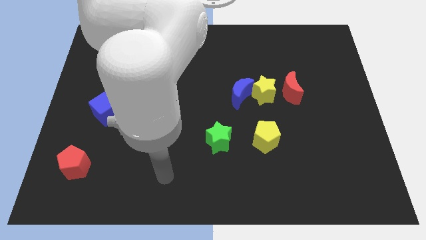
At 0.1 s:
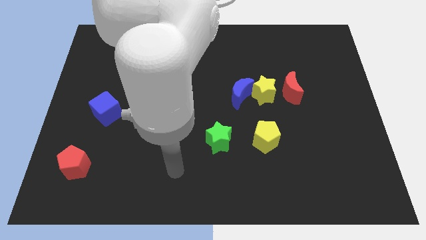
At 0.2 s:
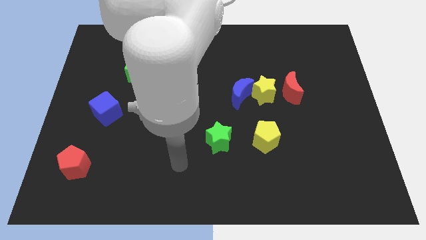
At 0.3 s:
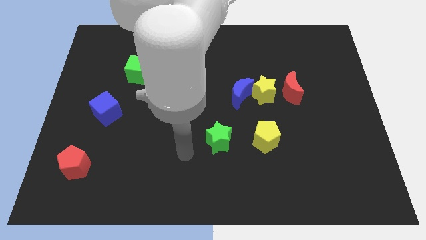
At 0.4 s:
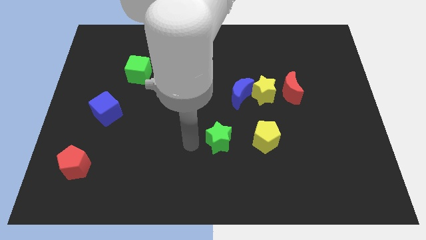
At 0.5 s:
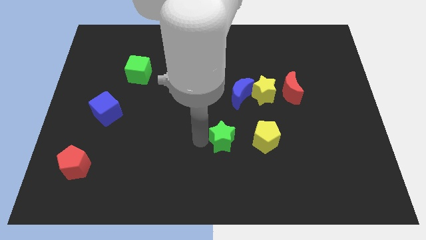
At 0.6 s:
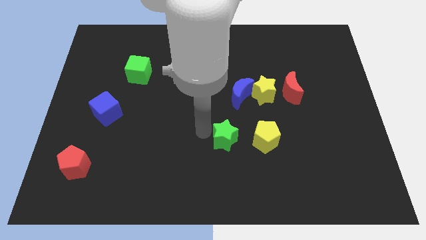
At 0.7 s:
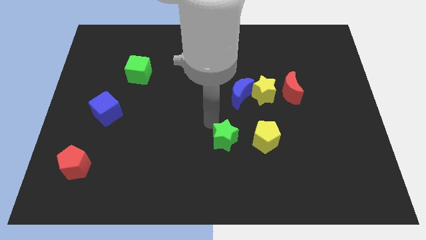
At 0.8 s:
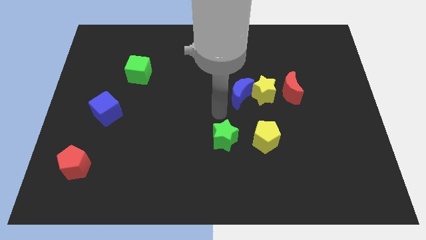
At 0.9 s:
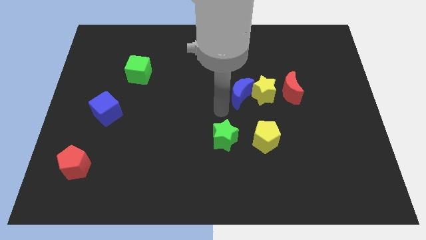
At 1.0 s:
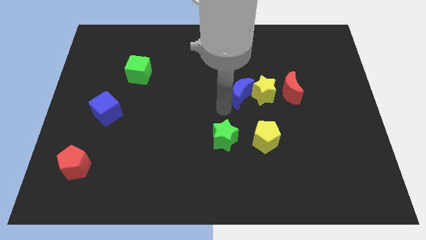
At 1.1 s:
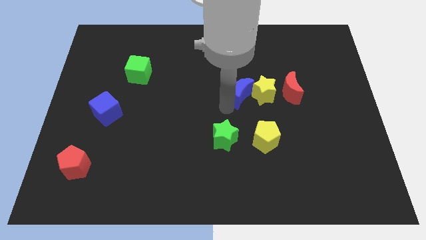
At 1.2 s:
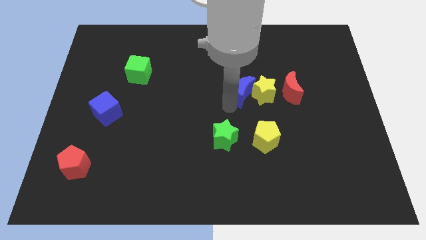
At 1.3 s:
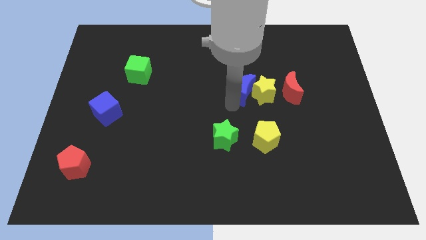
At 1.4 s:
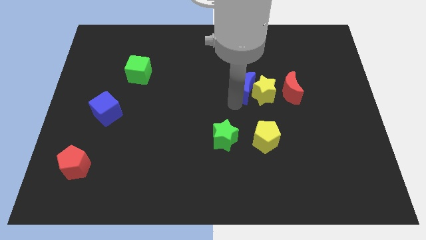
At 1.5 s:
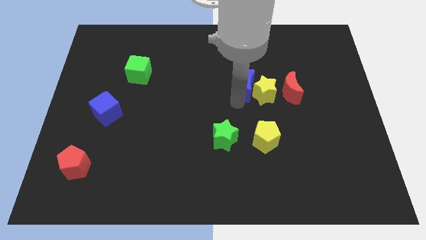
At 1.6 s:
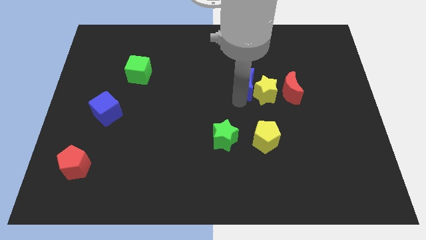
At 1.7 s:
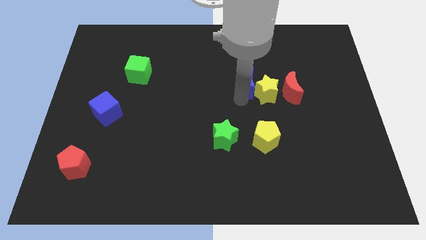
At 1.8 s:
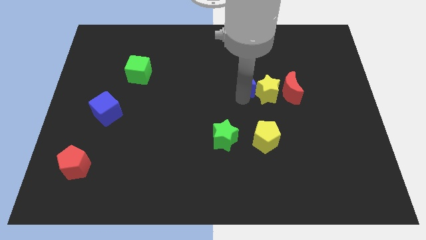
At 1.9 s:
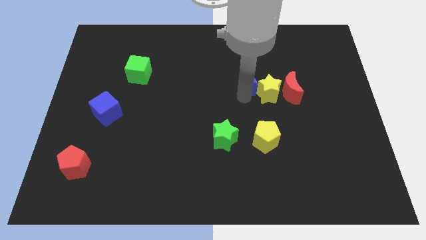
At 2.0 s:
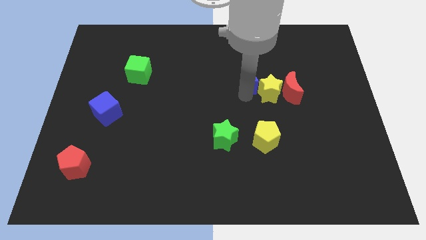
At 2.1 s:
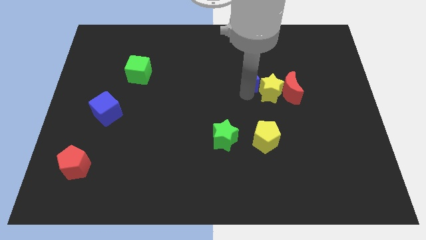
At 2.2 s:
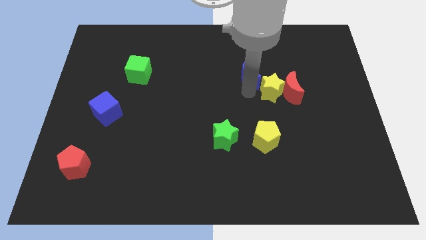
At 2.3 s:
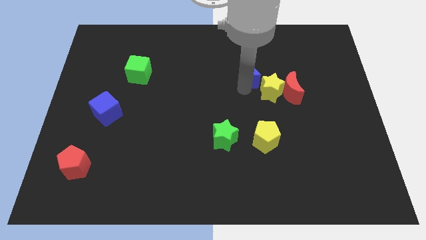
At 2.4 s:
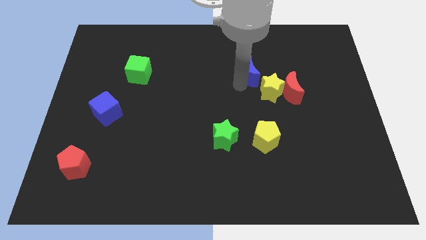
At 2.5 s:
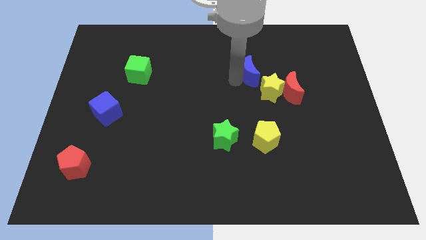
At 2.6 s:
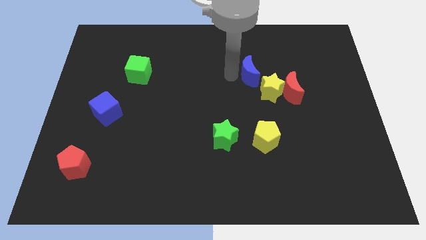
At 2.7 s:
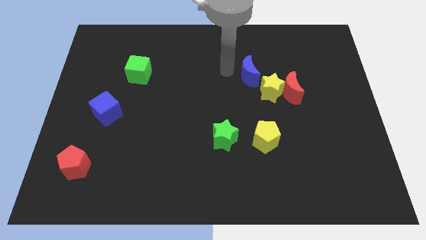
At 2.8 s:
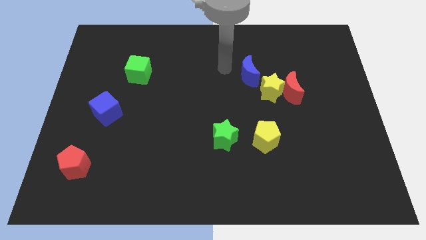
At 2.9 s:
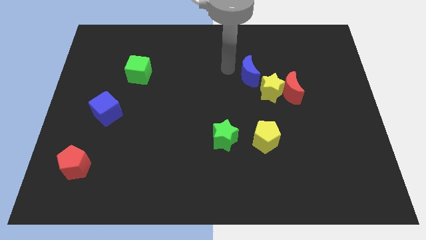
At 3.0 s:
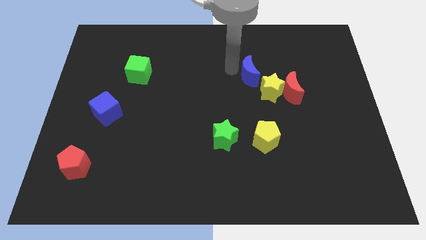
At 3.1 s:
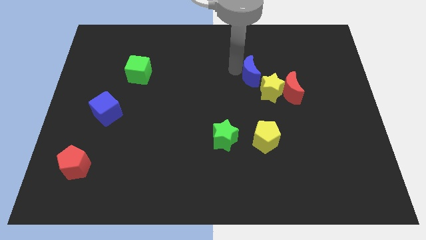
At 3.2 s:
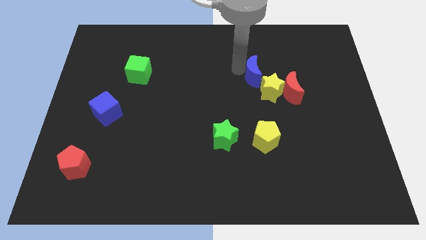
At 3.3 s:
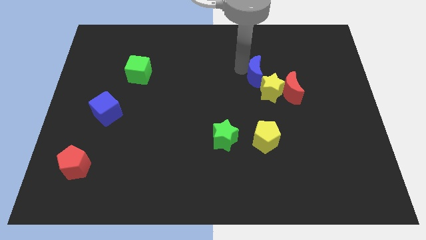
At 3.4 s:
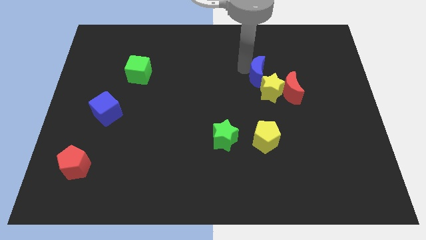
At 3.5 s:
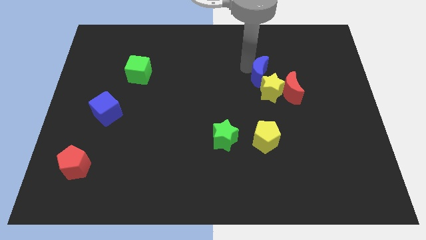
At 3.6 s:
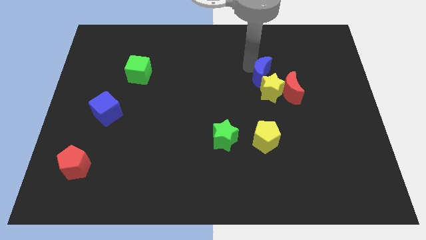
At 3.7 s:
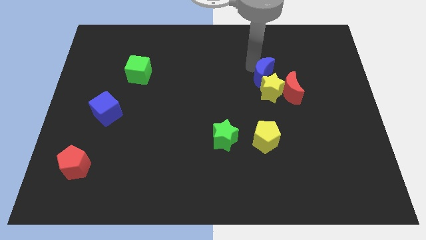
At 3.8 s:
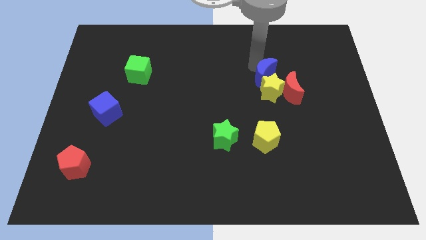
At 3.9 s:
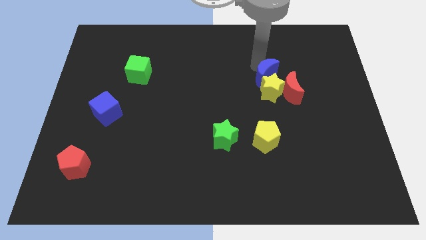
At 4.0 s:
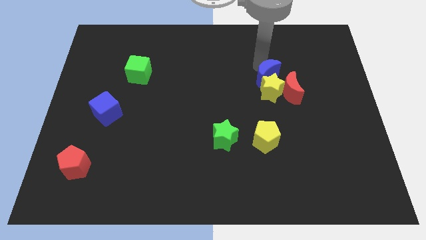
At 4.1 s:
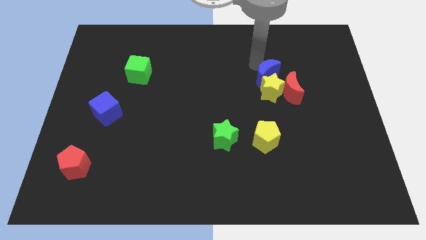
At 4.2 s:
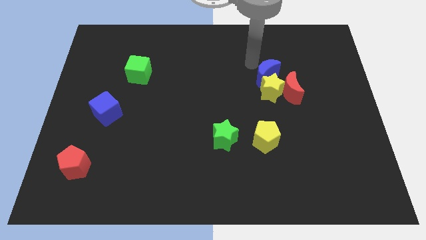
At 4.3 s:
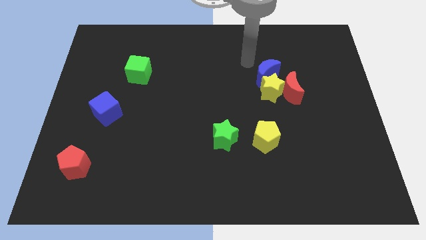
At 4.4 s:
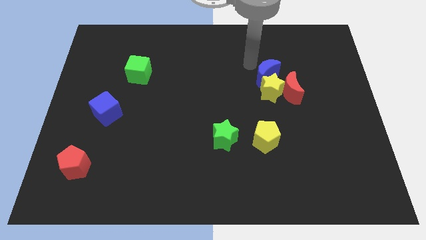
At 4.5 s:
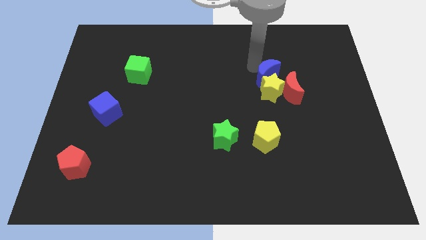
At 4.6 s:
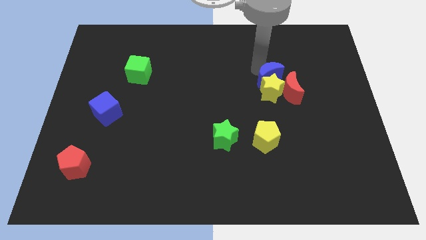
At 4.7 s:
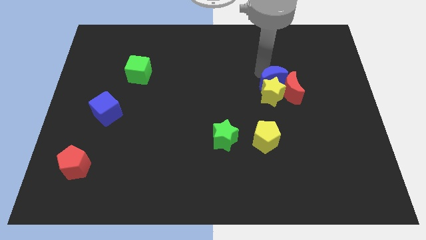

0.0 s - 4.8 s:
slide the blue moon next to the red moon

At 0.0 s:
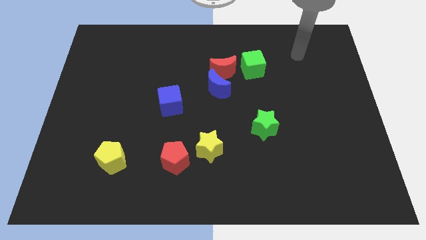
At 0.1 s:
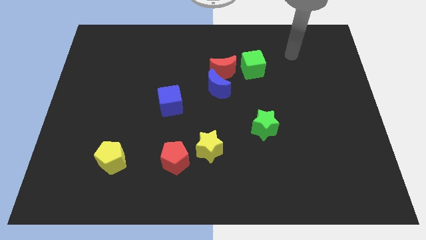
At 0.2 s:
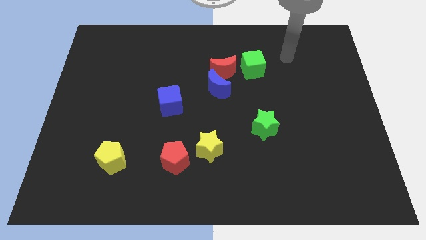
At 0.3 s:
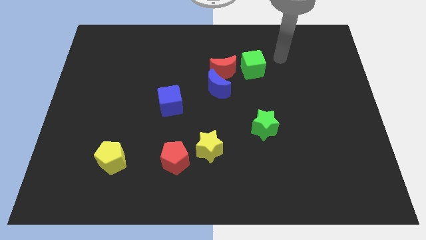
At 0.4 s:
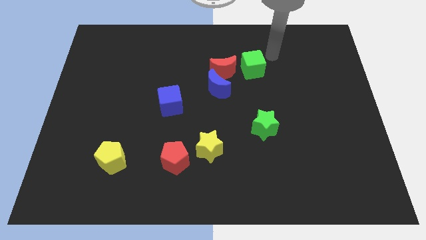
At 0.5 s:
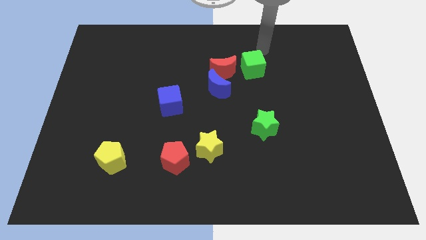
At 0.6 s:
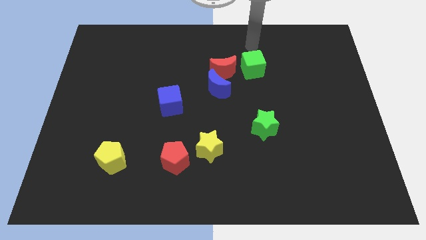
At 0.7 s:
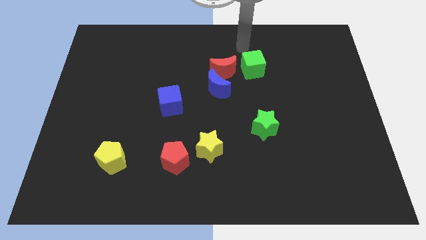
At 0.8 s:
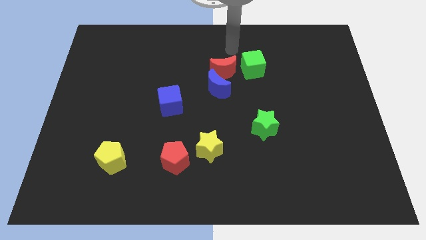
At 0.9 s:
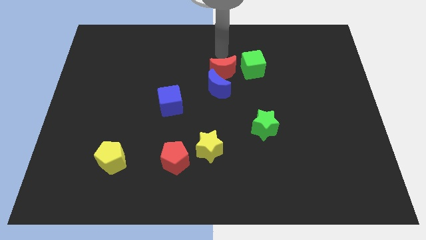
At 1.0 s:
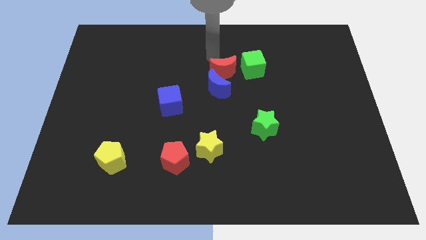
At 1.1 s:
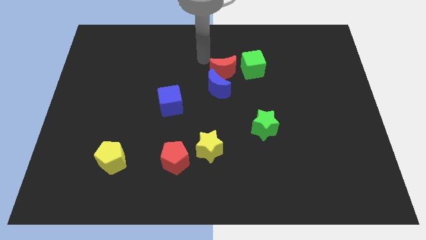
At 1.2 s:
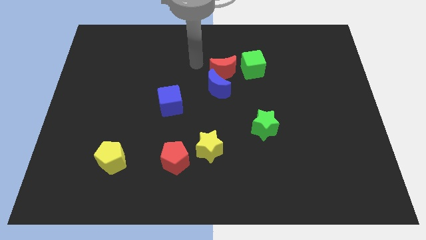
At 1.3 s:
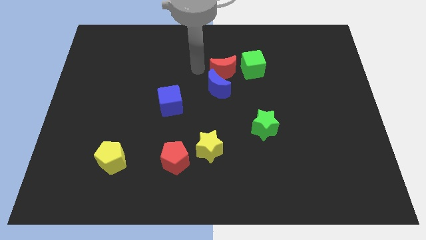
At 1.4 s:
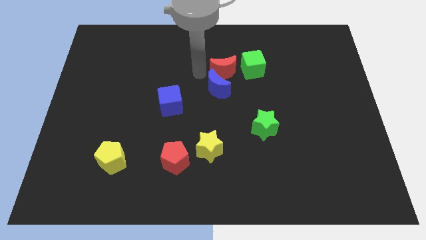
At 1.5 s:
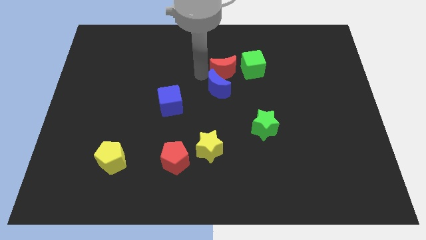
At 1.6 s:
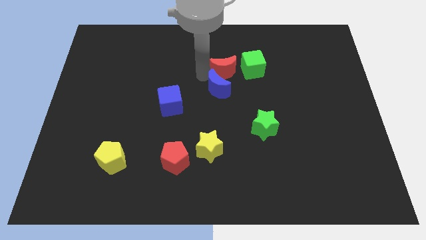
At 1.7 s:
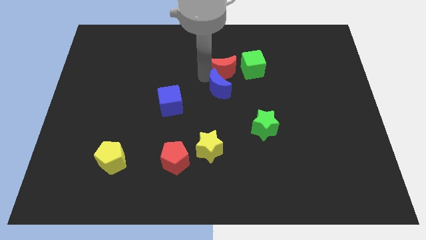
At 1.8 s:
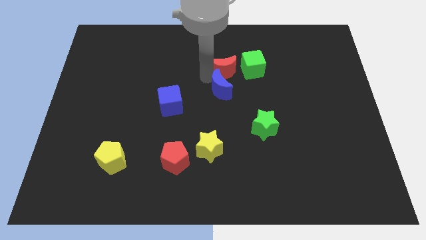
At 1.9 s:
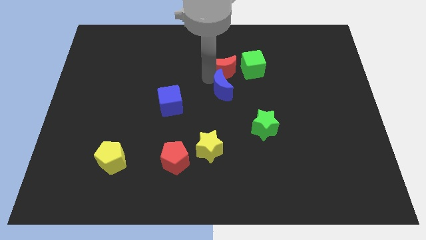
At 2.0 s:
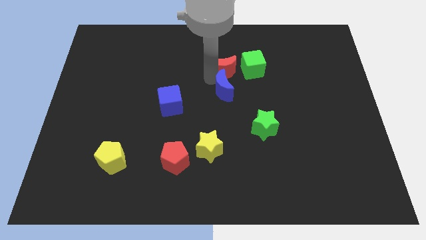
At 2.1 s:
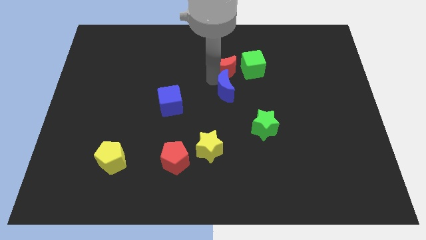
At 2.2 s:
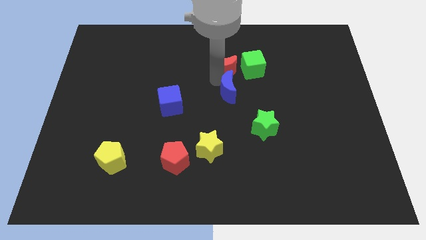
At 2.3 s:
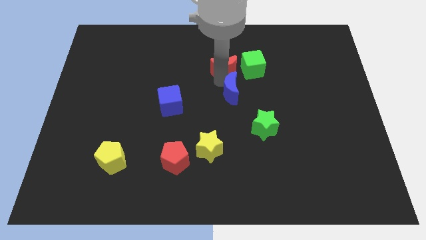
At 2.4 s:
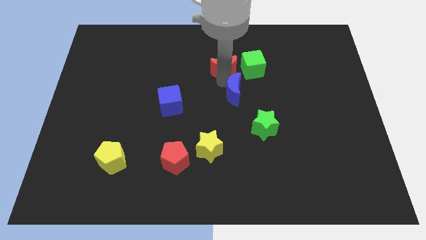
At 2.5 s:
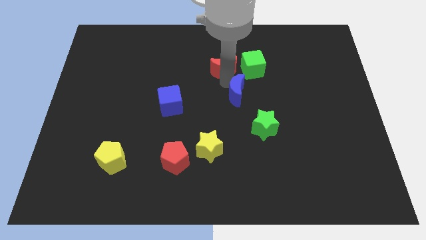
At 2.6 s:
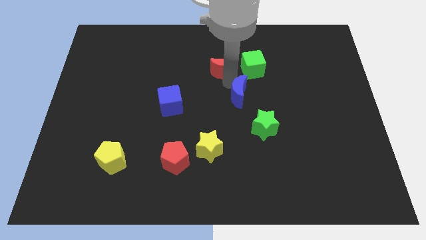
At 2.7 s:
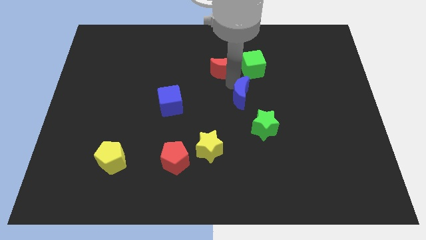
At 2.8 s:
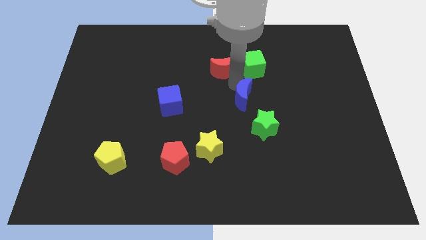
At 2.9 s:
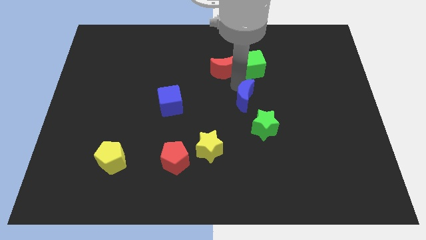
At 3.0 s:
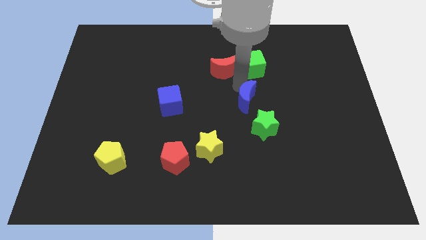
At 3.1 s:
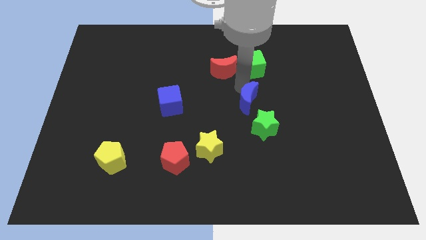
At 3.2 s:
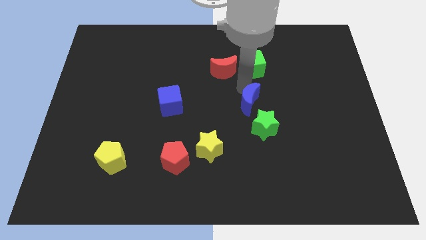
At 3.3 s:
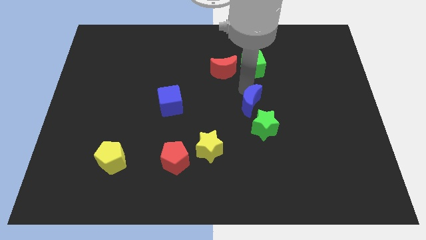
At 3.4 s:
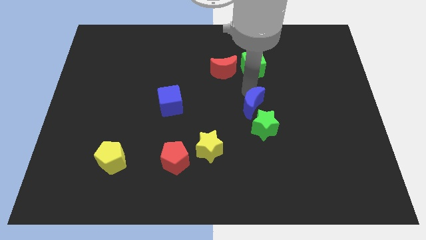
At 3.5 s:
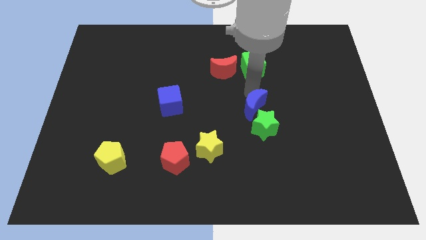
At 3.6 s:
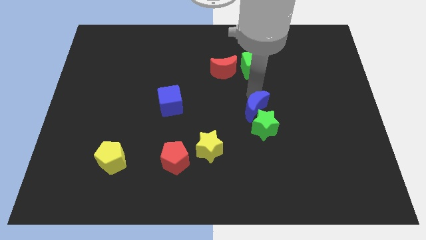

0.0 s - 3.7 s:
put the blue moon next to the green star
